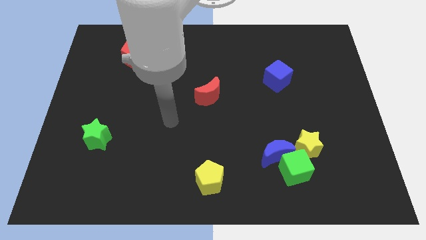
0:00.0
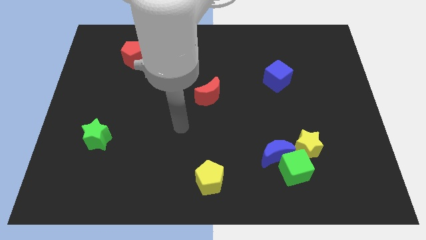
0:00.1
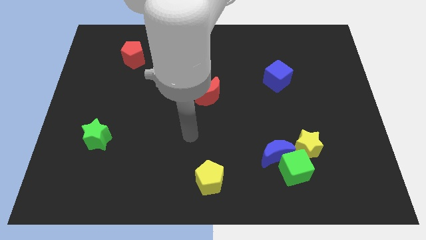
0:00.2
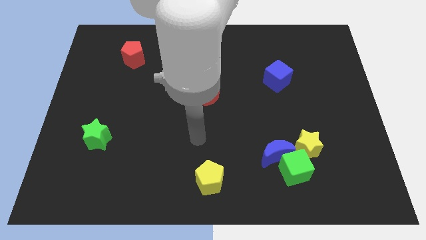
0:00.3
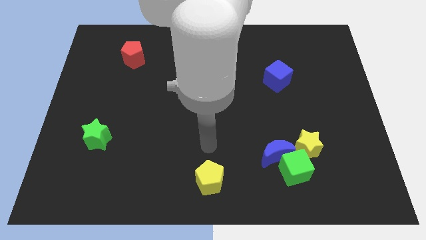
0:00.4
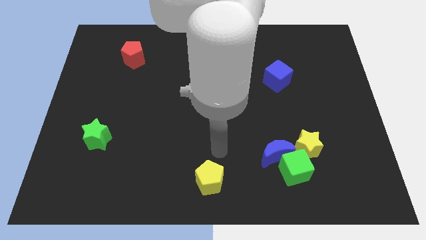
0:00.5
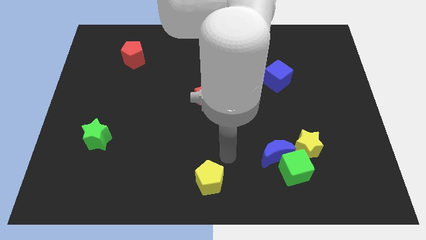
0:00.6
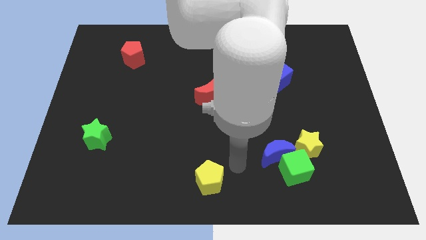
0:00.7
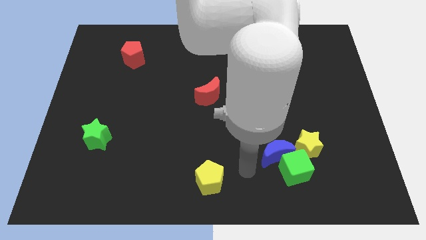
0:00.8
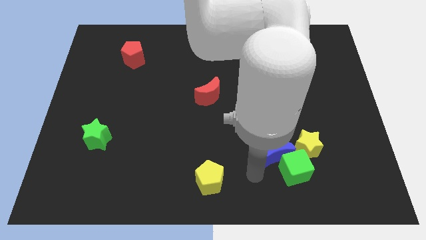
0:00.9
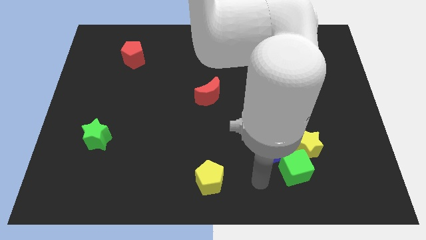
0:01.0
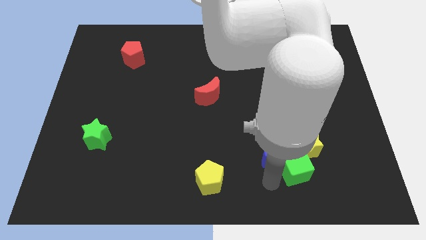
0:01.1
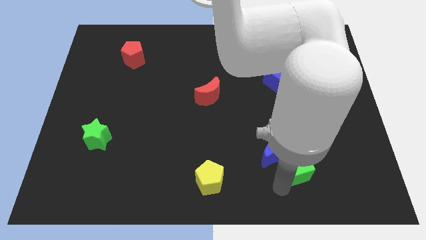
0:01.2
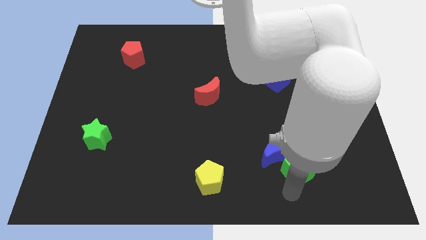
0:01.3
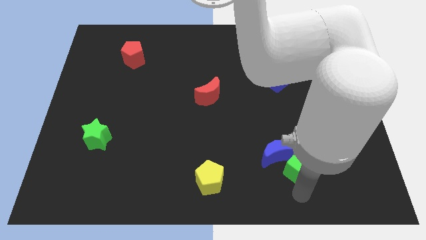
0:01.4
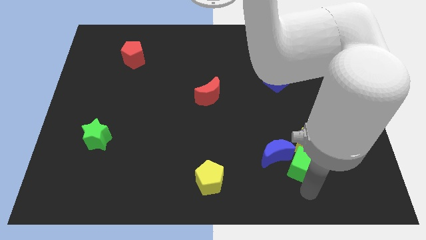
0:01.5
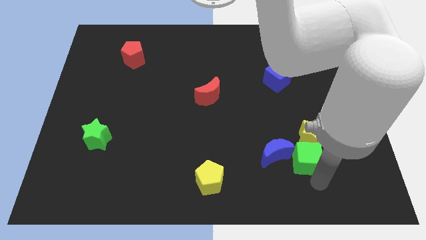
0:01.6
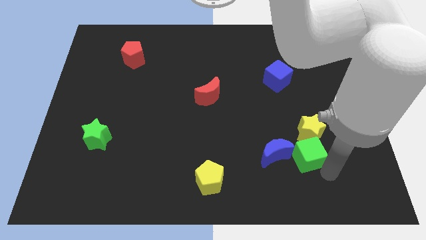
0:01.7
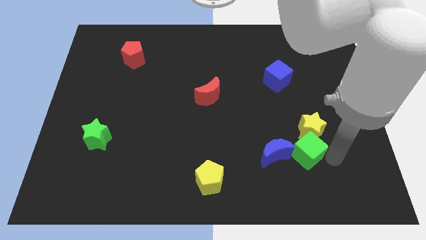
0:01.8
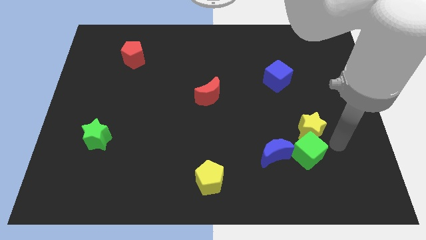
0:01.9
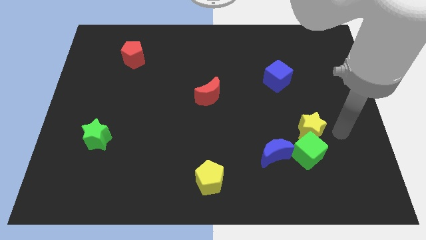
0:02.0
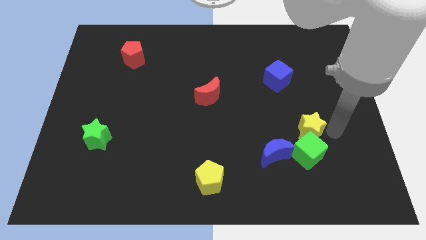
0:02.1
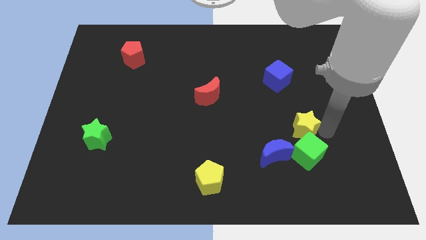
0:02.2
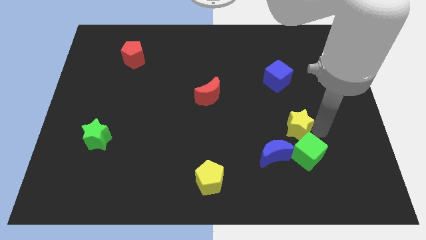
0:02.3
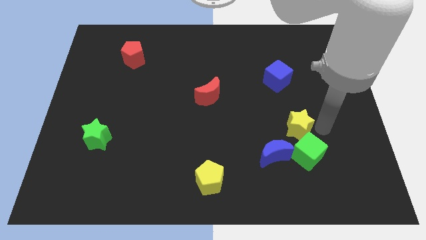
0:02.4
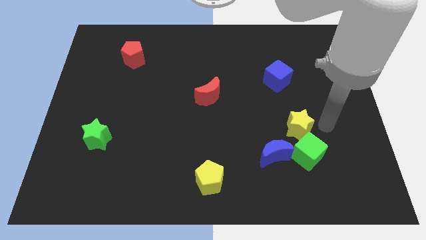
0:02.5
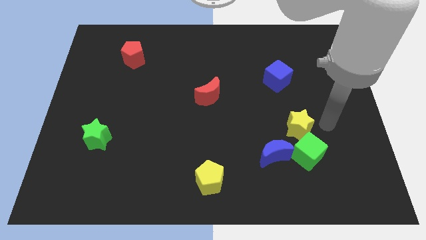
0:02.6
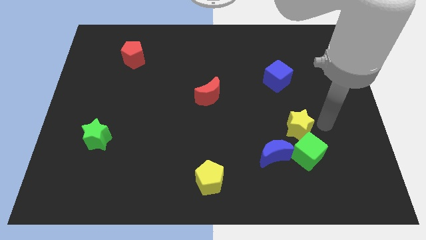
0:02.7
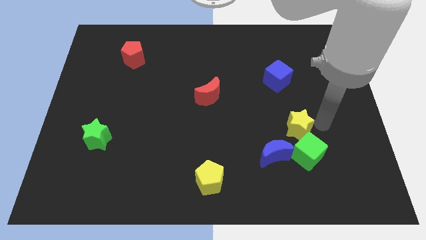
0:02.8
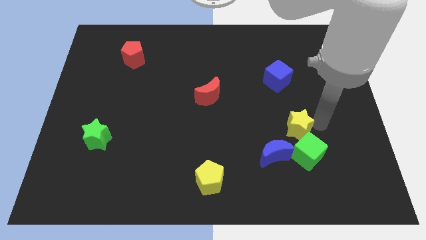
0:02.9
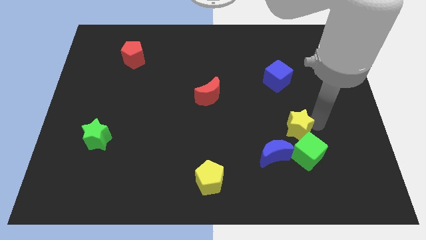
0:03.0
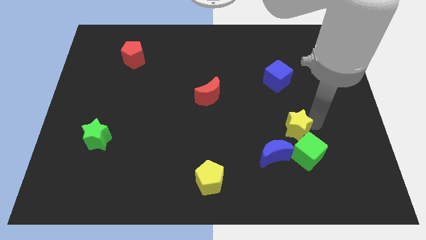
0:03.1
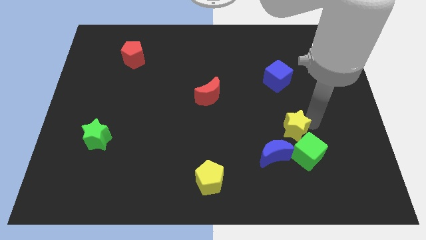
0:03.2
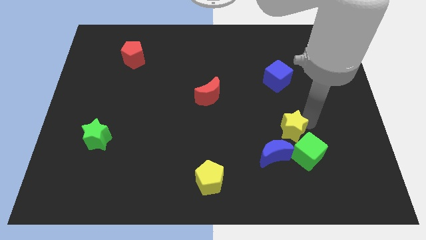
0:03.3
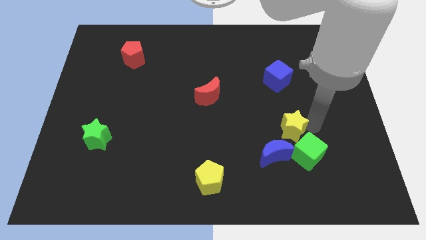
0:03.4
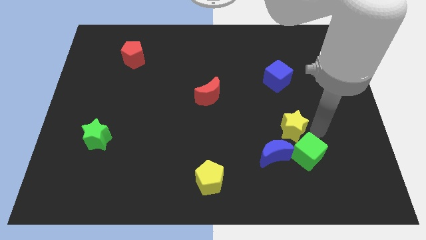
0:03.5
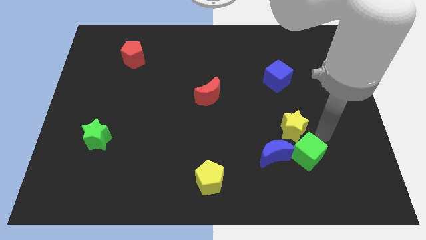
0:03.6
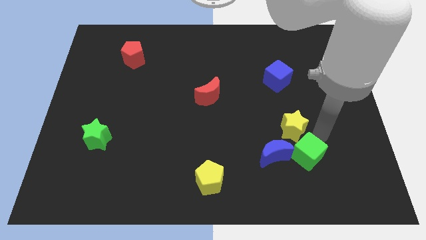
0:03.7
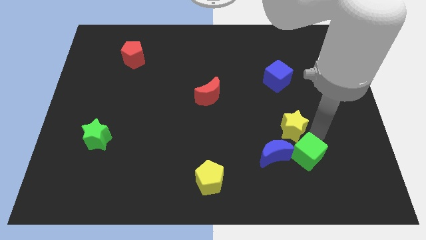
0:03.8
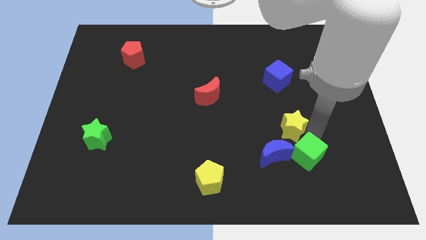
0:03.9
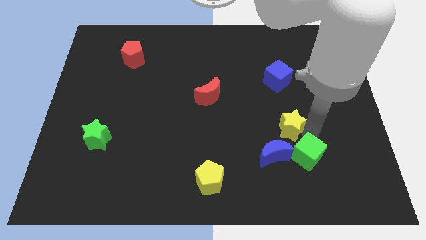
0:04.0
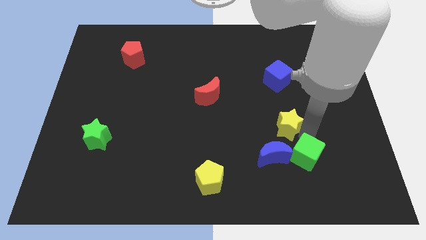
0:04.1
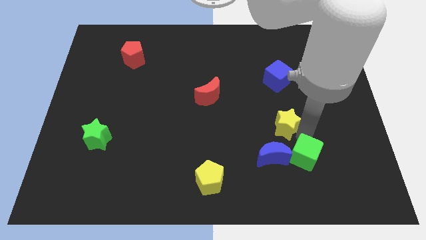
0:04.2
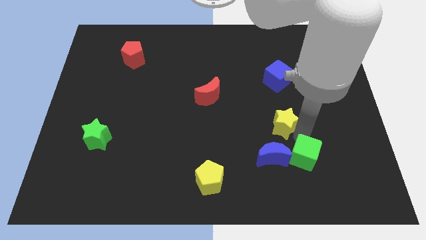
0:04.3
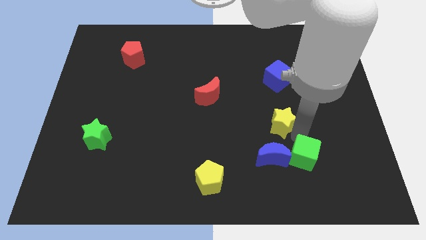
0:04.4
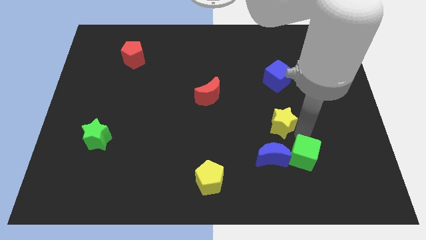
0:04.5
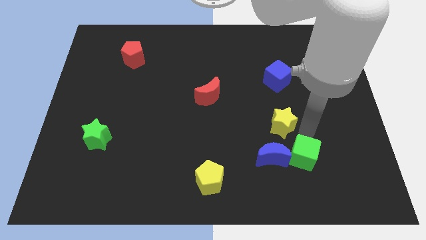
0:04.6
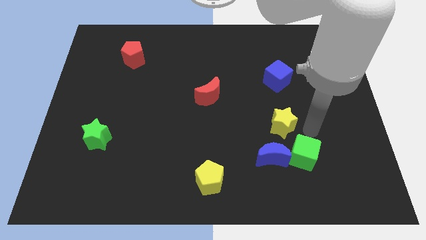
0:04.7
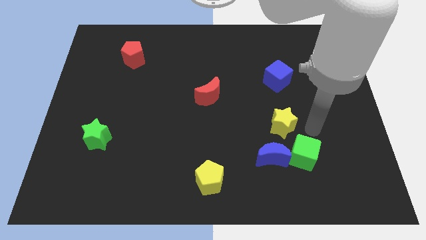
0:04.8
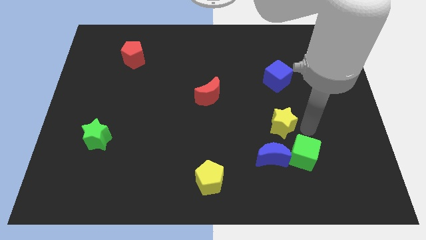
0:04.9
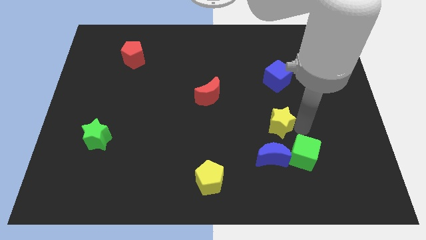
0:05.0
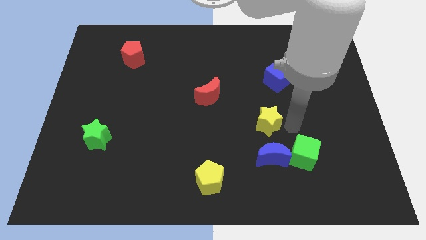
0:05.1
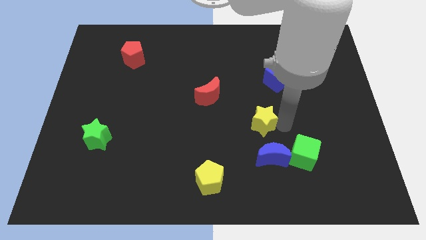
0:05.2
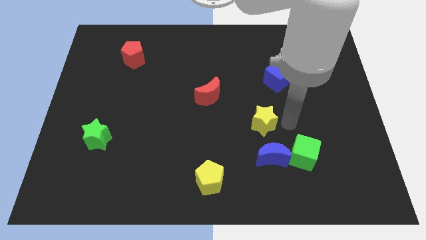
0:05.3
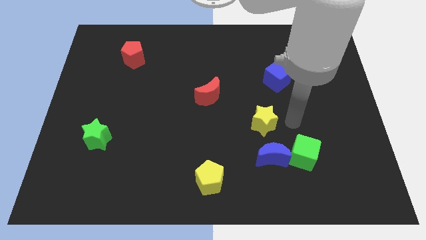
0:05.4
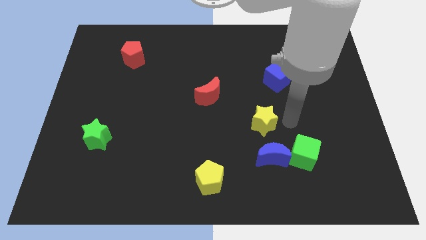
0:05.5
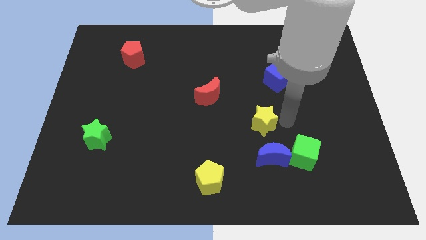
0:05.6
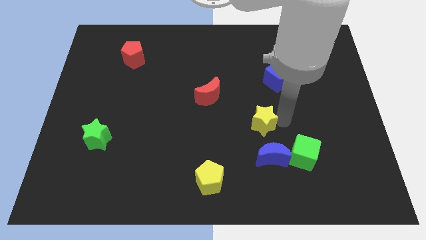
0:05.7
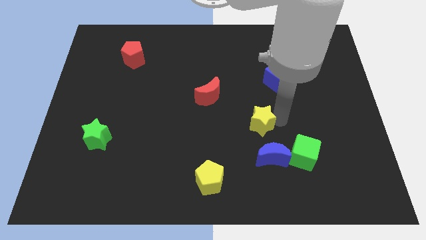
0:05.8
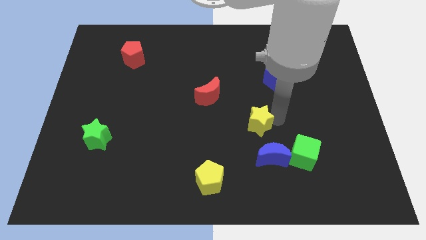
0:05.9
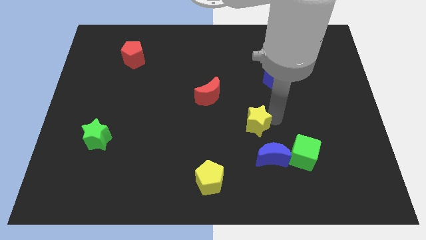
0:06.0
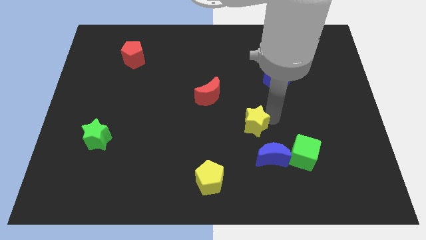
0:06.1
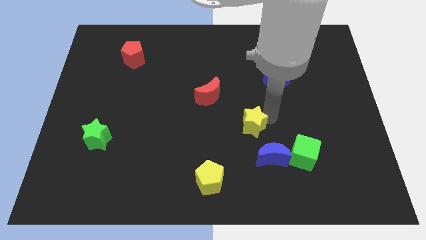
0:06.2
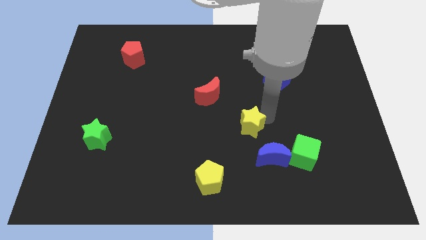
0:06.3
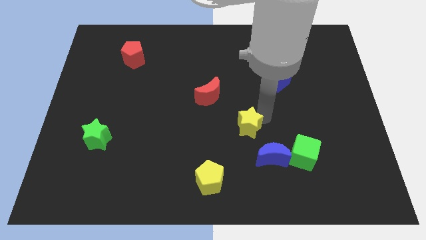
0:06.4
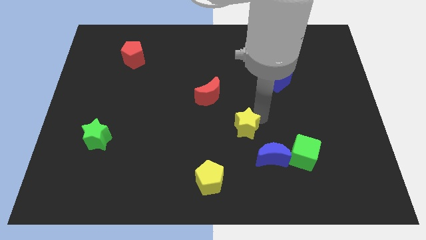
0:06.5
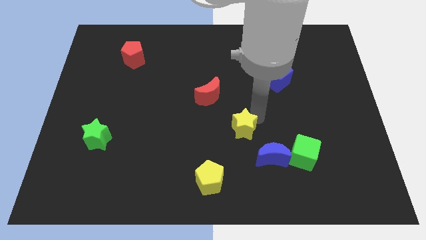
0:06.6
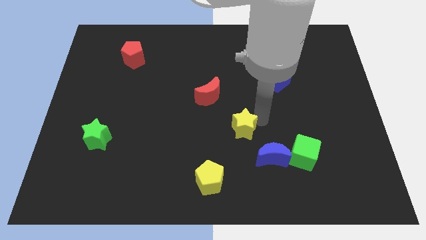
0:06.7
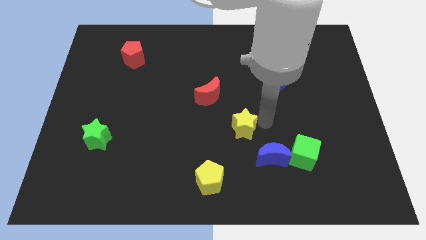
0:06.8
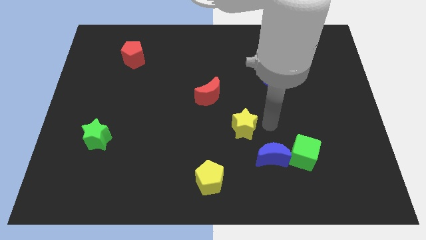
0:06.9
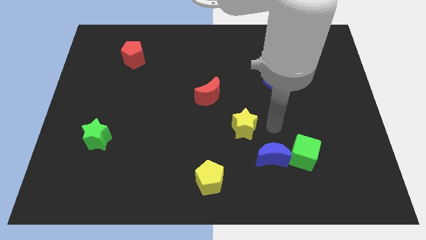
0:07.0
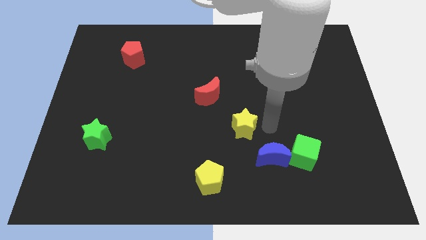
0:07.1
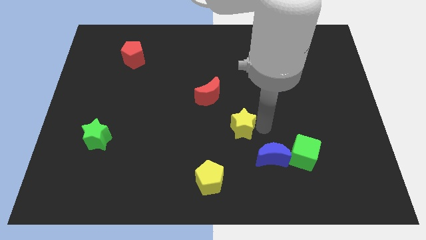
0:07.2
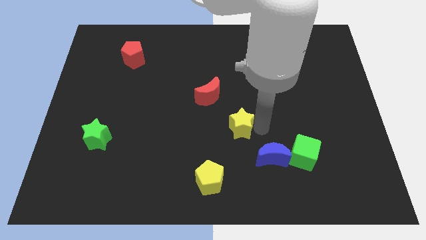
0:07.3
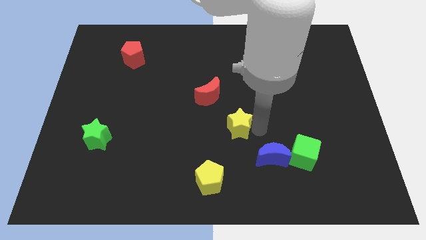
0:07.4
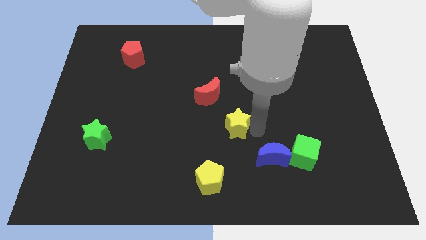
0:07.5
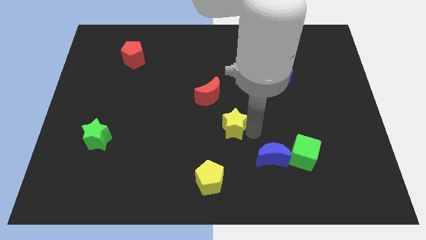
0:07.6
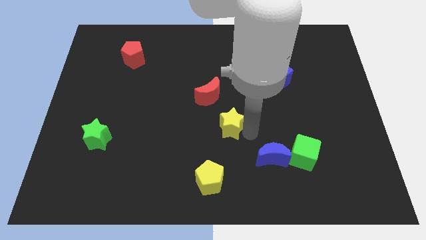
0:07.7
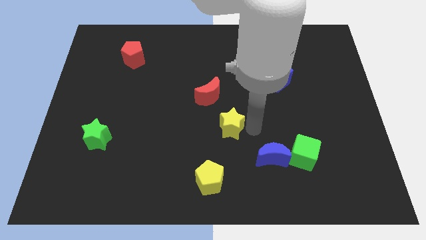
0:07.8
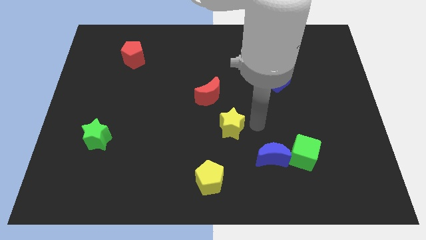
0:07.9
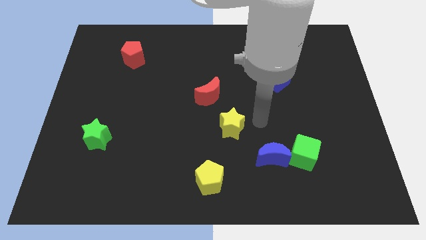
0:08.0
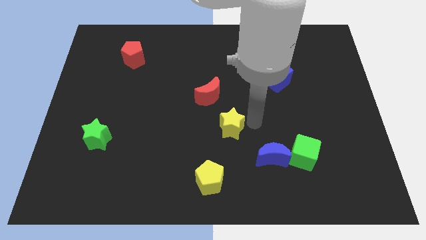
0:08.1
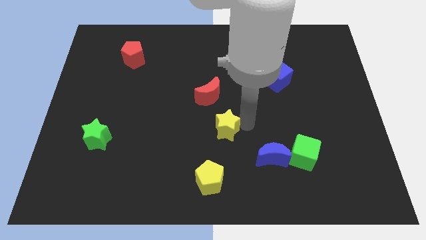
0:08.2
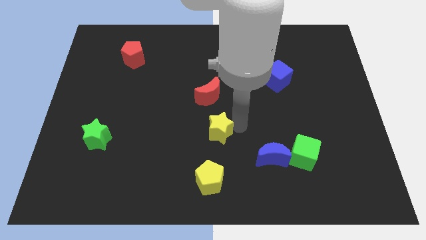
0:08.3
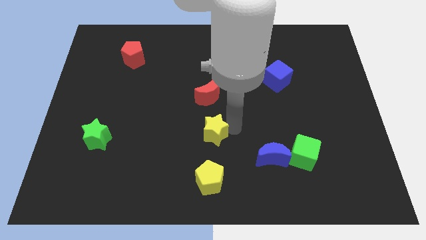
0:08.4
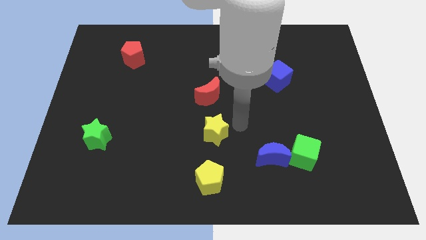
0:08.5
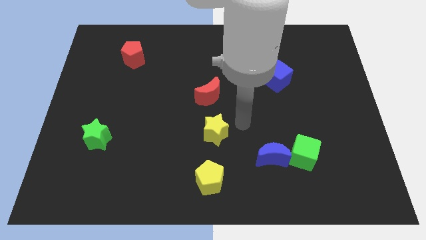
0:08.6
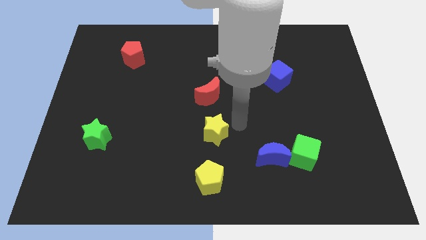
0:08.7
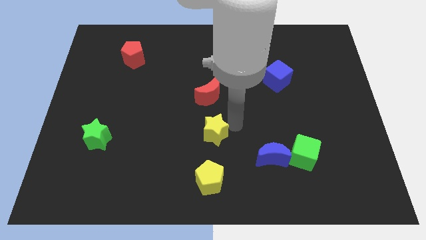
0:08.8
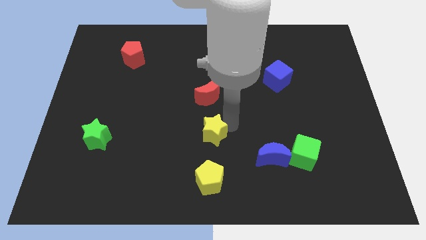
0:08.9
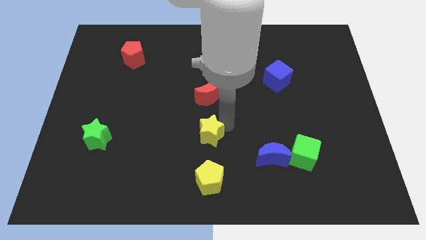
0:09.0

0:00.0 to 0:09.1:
move the yellow star left
